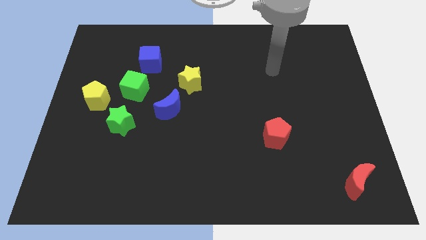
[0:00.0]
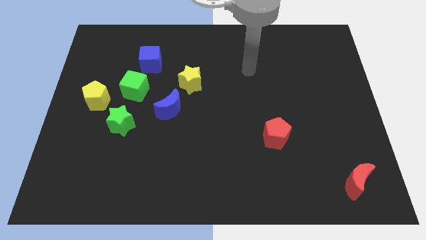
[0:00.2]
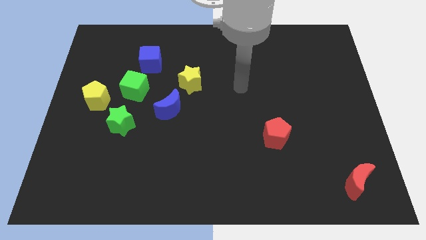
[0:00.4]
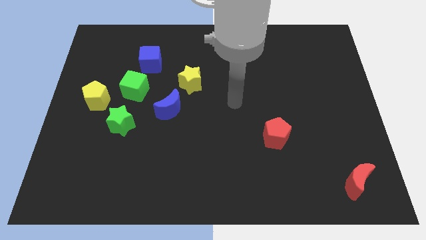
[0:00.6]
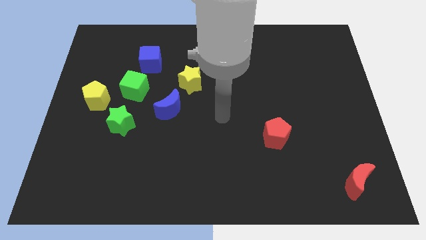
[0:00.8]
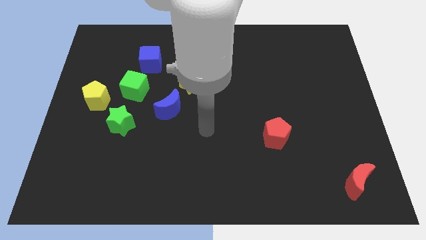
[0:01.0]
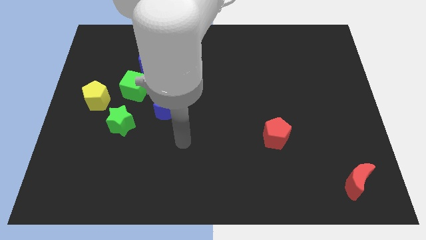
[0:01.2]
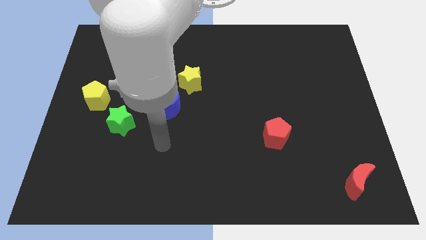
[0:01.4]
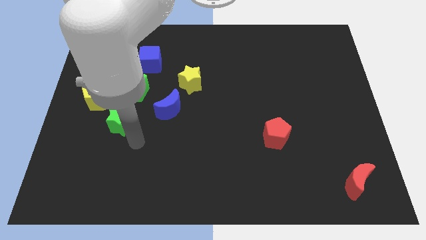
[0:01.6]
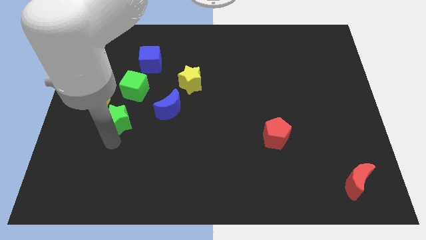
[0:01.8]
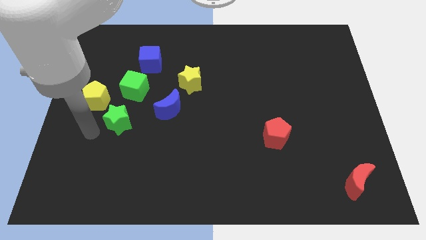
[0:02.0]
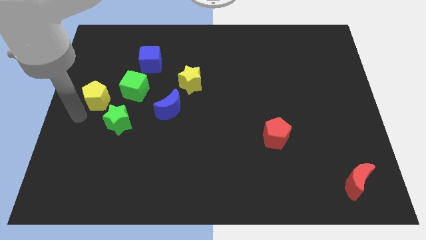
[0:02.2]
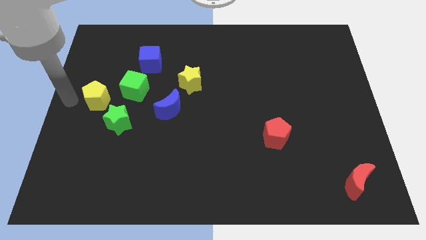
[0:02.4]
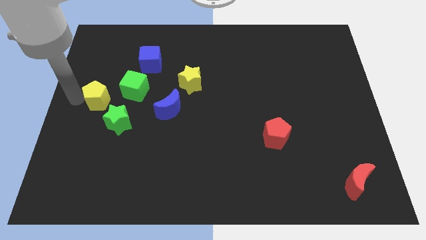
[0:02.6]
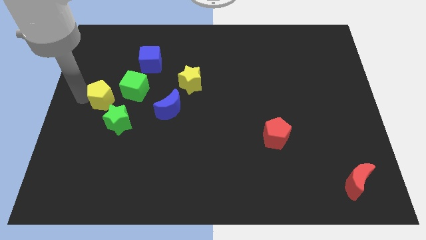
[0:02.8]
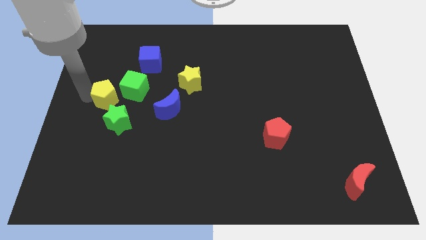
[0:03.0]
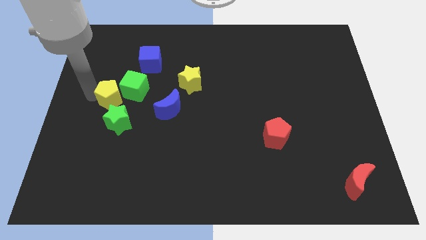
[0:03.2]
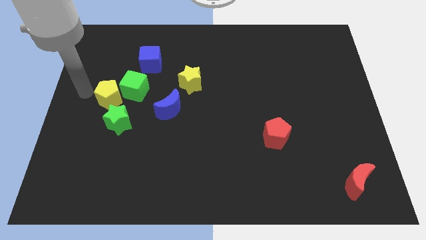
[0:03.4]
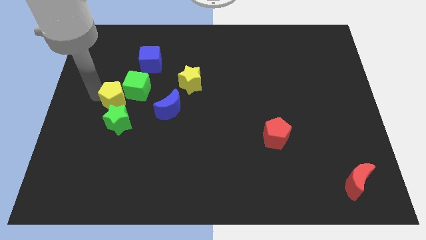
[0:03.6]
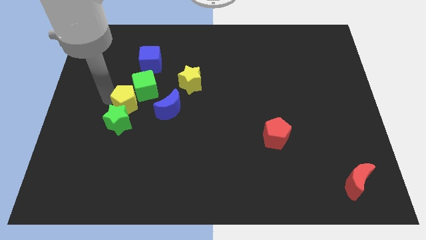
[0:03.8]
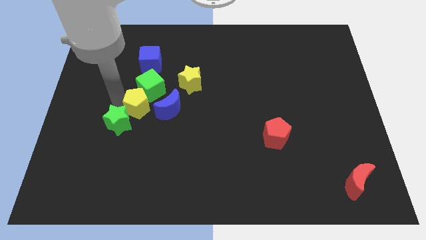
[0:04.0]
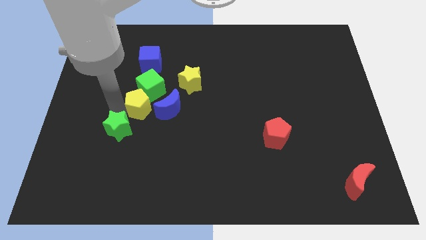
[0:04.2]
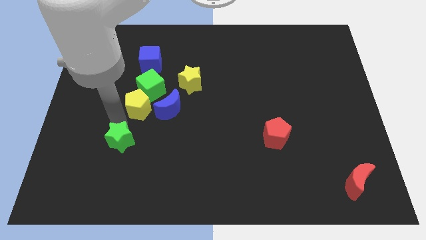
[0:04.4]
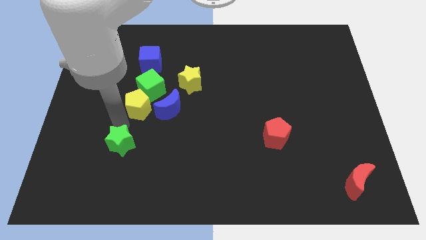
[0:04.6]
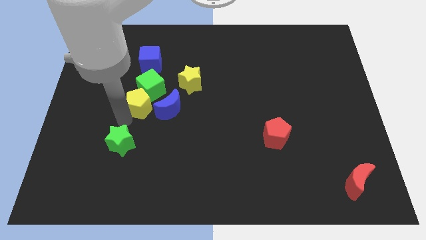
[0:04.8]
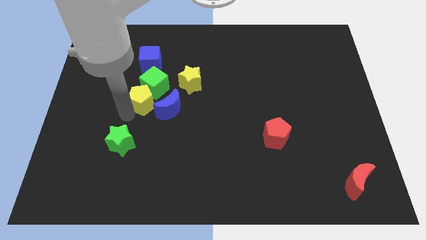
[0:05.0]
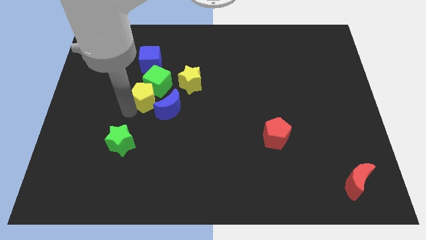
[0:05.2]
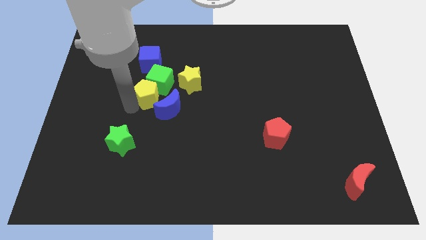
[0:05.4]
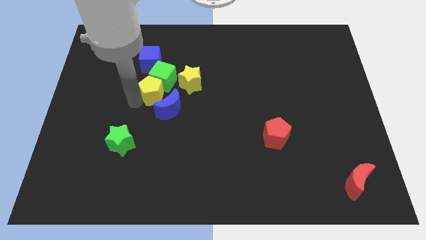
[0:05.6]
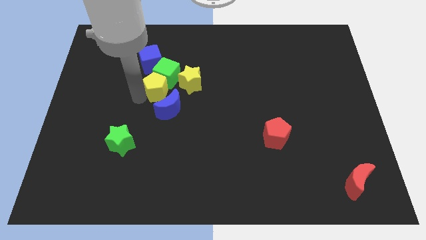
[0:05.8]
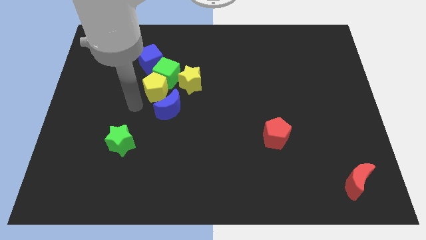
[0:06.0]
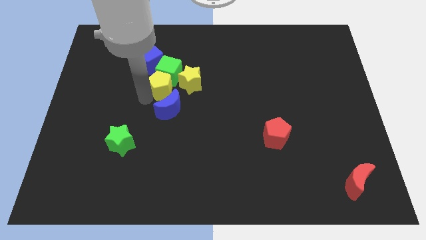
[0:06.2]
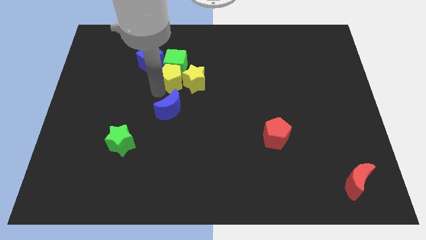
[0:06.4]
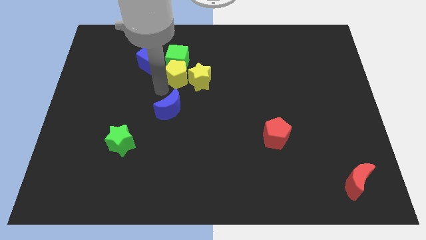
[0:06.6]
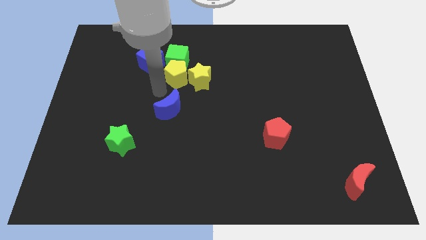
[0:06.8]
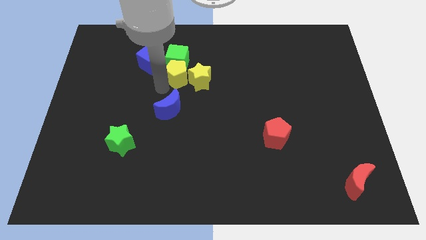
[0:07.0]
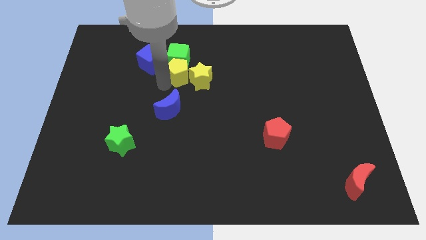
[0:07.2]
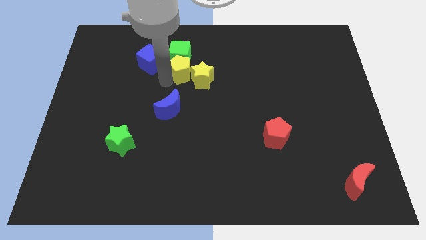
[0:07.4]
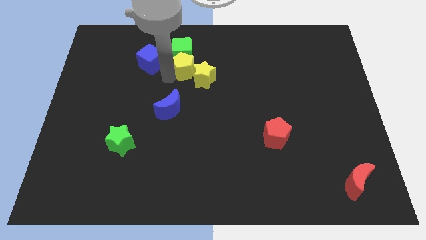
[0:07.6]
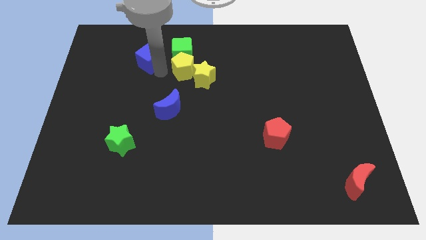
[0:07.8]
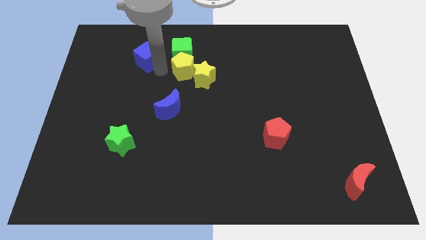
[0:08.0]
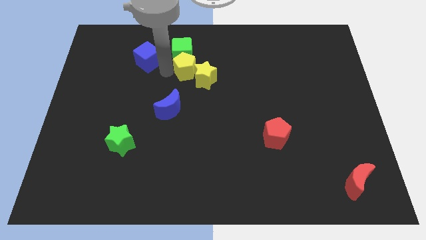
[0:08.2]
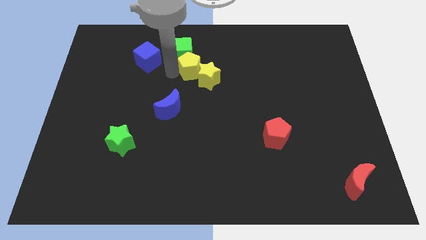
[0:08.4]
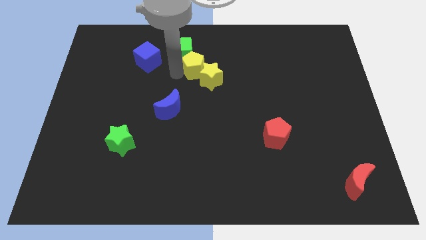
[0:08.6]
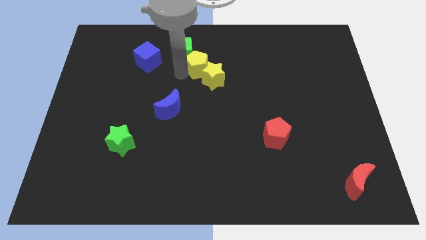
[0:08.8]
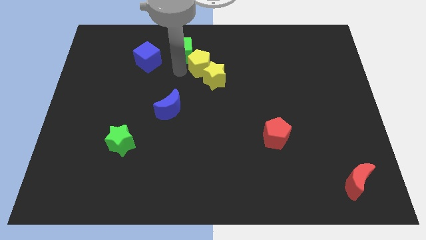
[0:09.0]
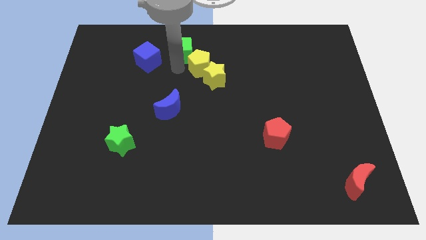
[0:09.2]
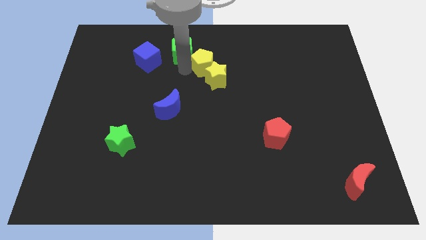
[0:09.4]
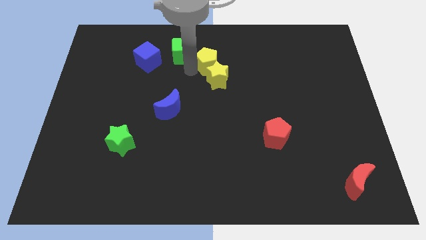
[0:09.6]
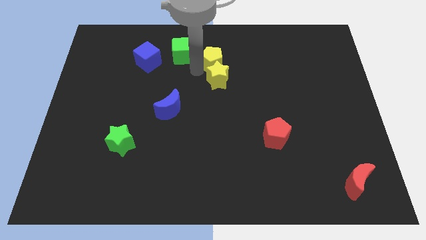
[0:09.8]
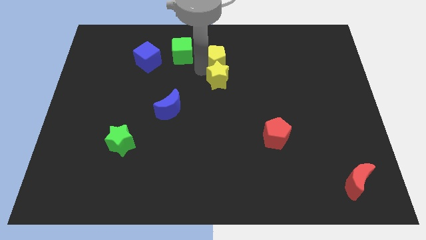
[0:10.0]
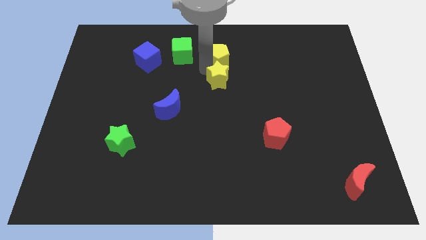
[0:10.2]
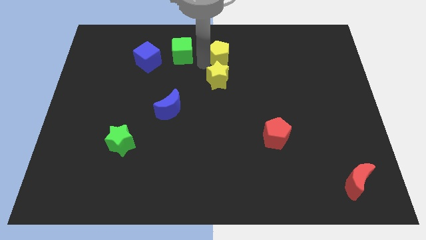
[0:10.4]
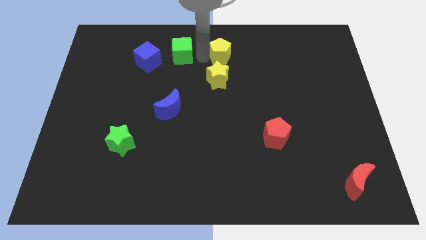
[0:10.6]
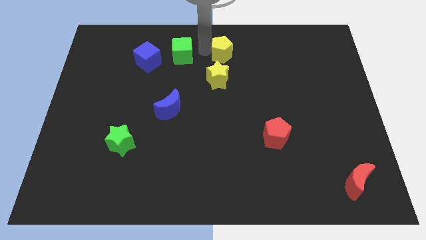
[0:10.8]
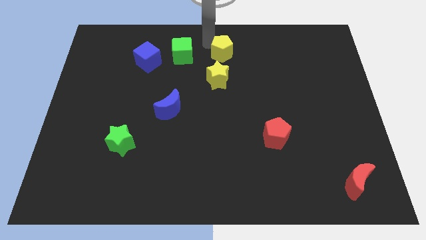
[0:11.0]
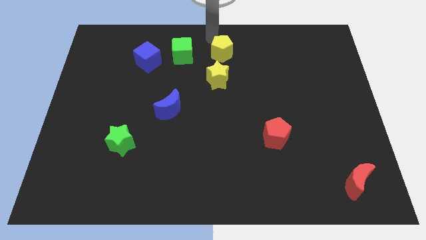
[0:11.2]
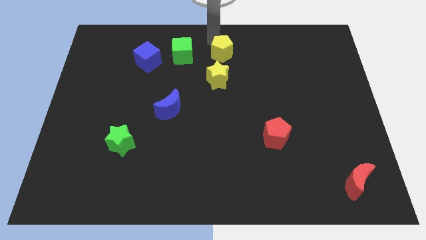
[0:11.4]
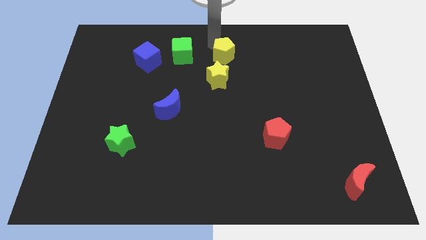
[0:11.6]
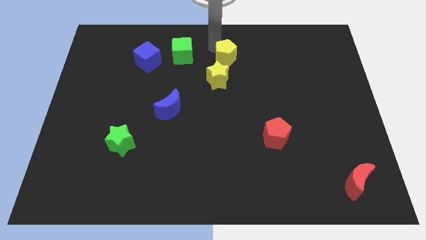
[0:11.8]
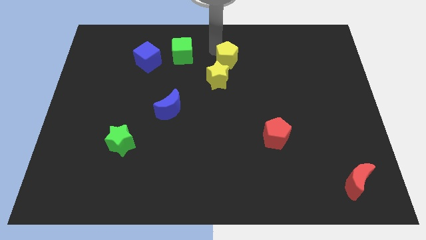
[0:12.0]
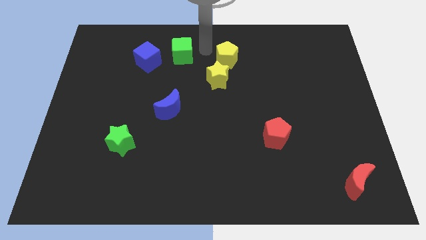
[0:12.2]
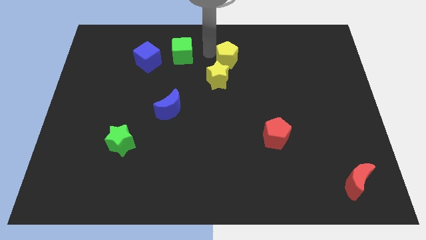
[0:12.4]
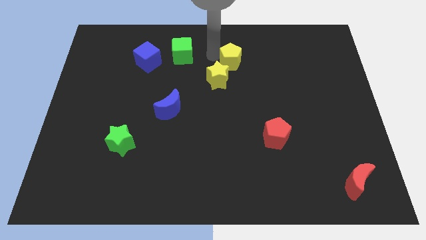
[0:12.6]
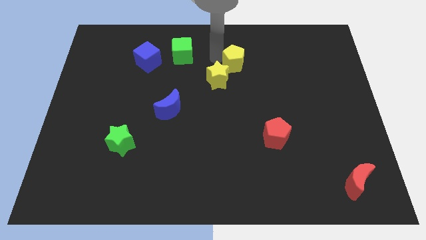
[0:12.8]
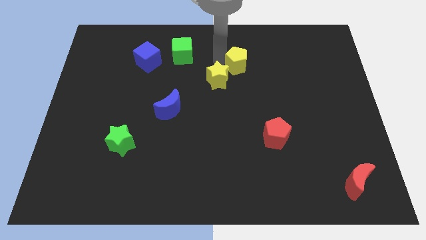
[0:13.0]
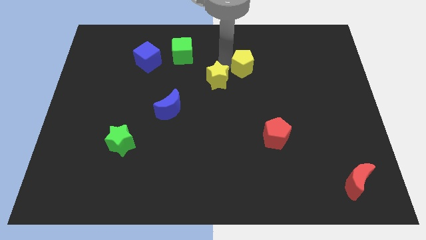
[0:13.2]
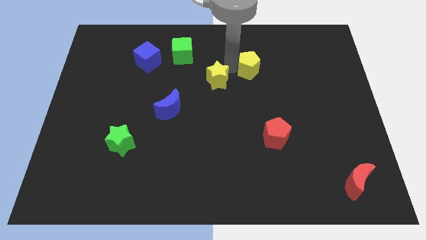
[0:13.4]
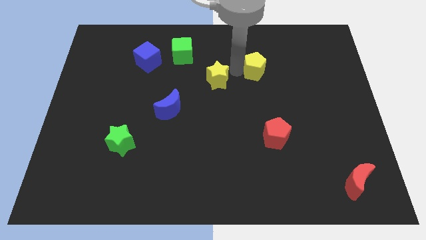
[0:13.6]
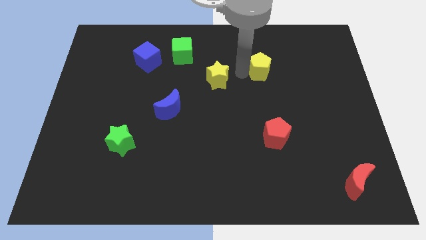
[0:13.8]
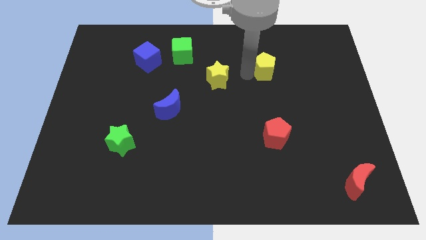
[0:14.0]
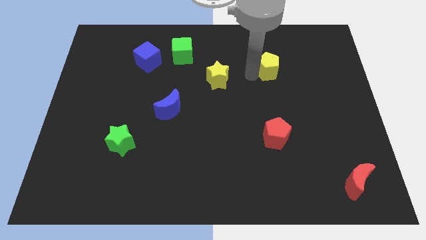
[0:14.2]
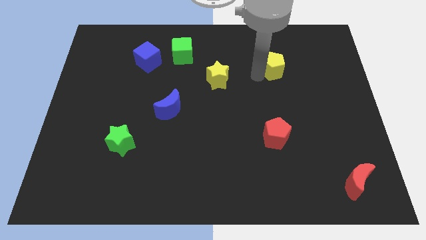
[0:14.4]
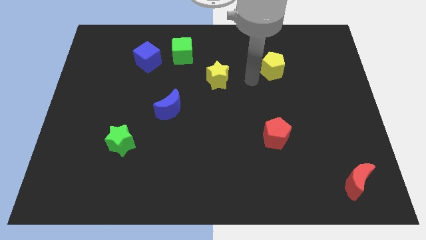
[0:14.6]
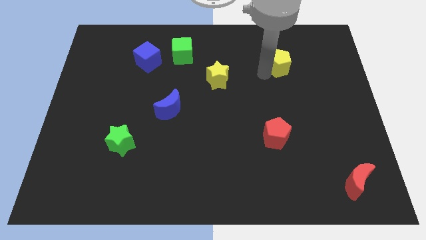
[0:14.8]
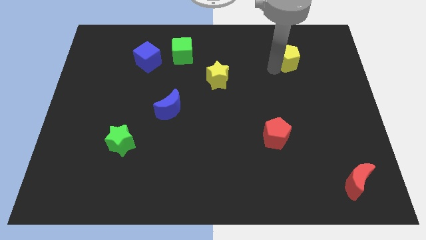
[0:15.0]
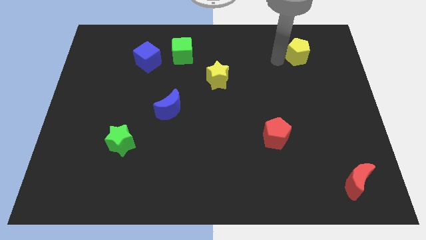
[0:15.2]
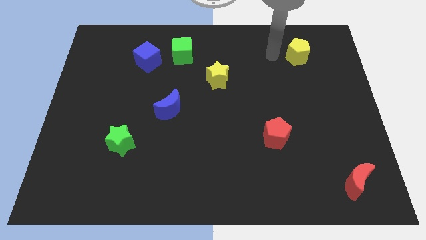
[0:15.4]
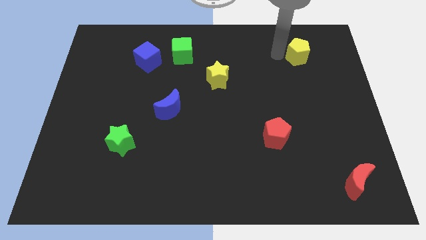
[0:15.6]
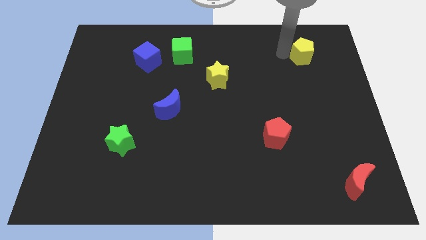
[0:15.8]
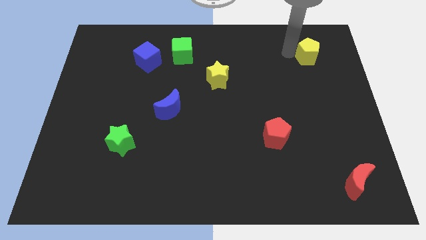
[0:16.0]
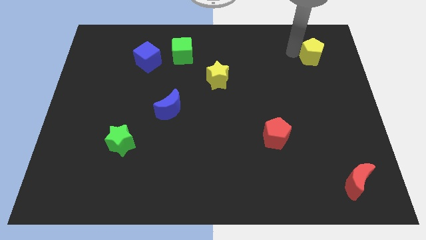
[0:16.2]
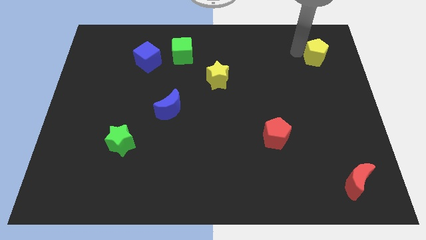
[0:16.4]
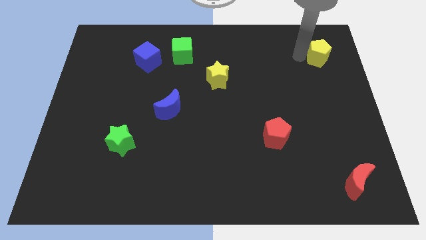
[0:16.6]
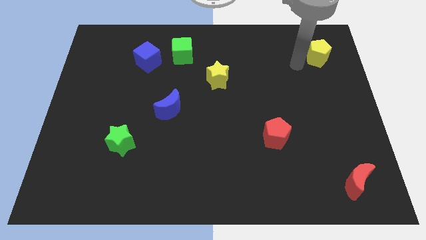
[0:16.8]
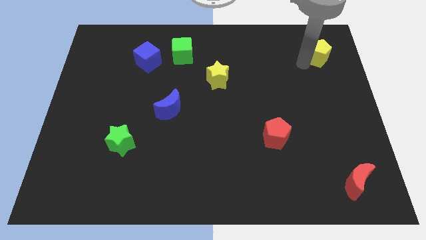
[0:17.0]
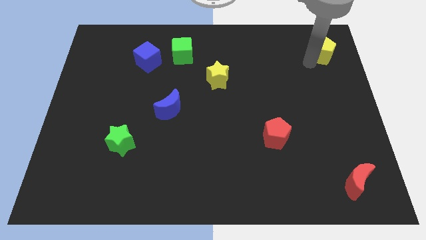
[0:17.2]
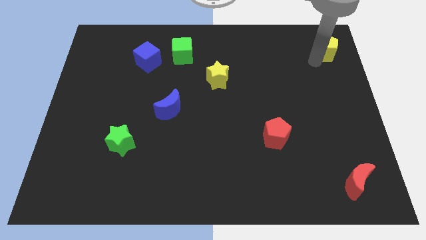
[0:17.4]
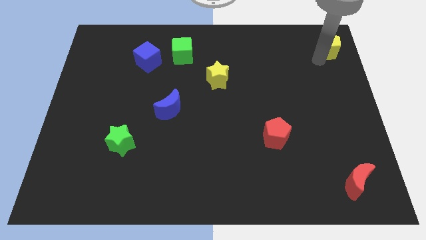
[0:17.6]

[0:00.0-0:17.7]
move the yellow pentagon to the top right of the board
